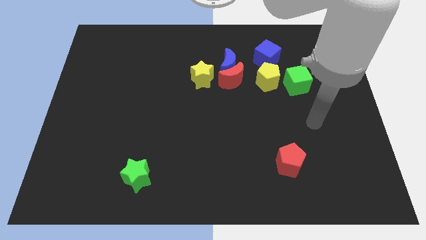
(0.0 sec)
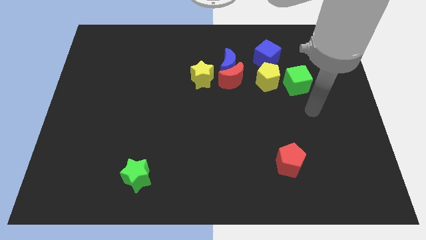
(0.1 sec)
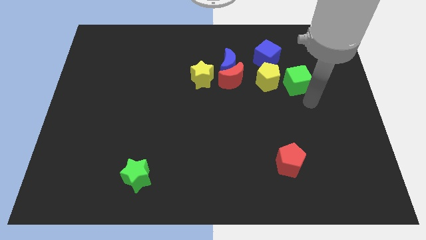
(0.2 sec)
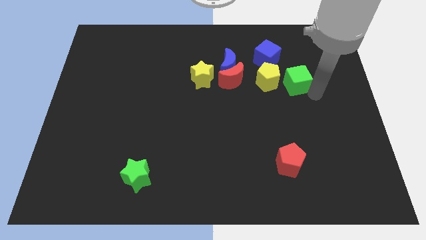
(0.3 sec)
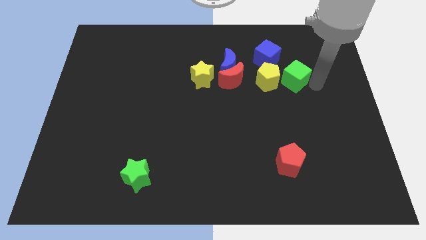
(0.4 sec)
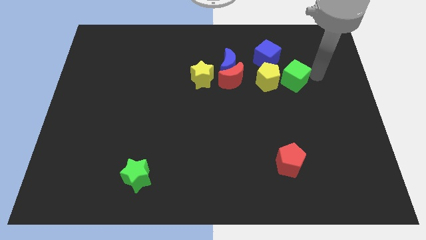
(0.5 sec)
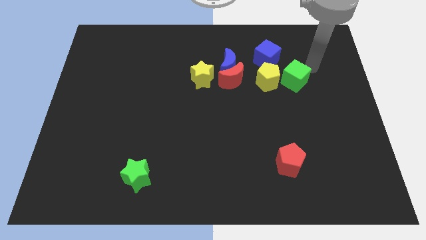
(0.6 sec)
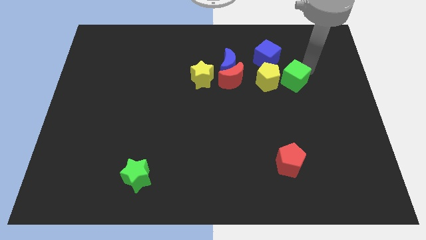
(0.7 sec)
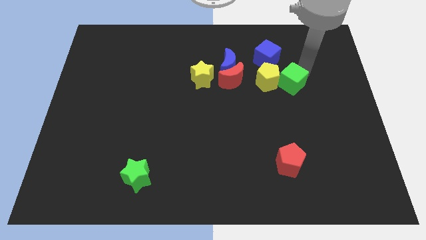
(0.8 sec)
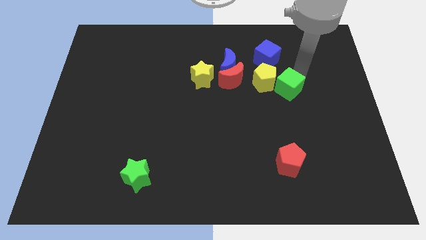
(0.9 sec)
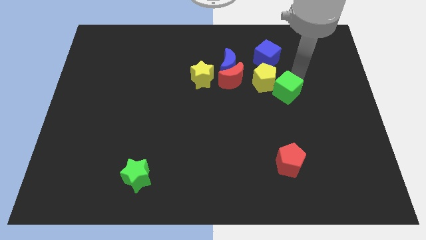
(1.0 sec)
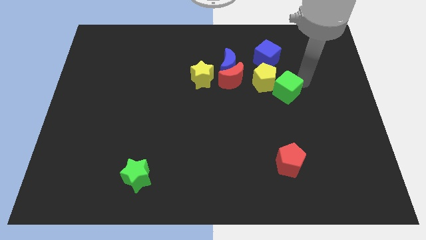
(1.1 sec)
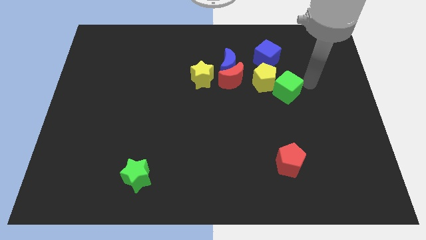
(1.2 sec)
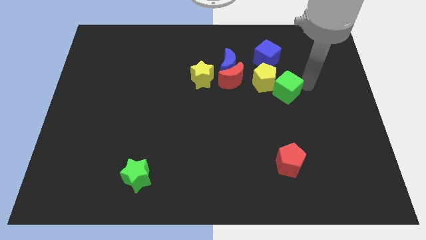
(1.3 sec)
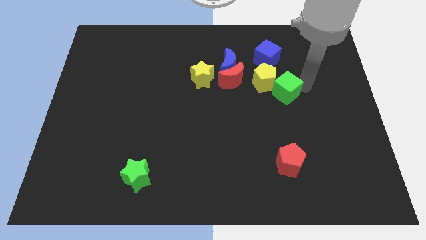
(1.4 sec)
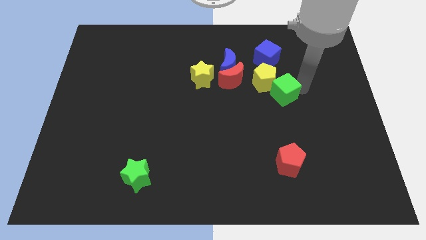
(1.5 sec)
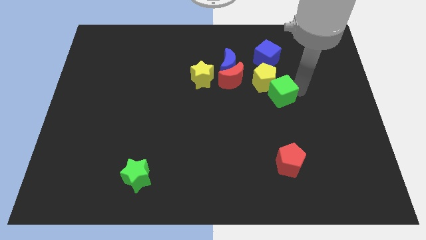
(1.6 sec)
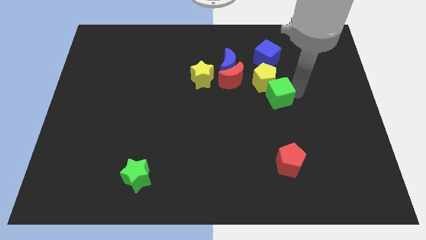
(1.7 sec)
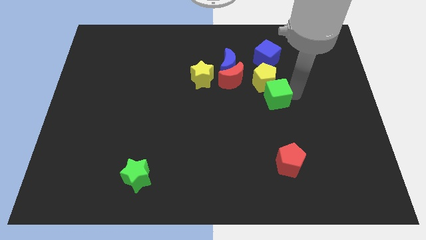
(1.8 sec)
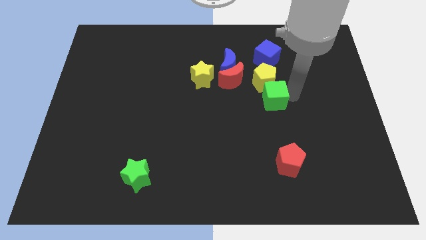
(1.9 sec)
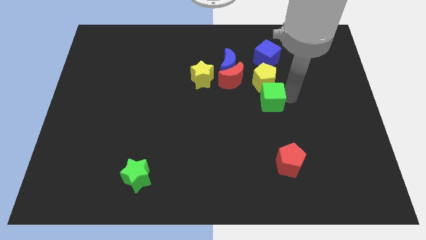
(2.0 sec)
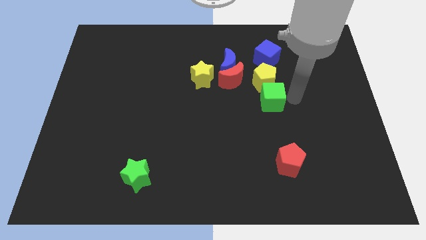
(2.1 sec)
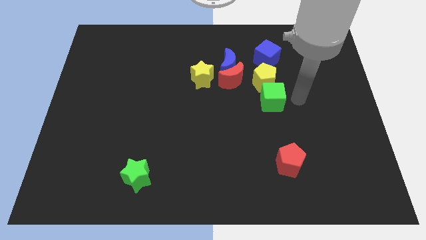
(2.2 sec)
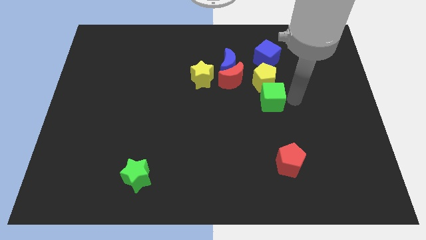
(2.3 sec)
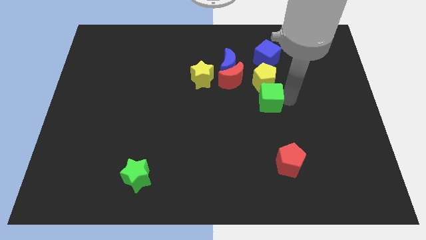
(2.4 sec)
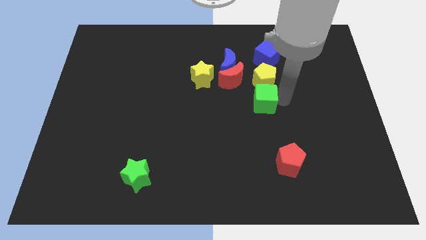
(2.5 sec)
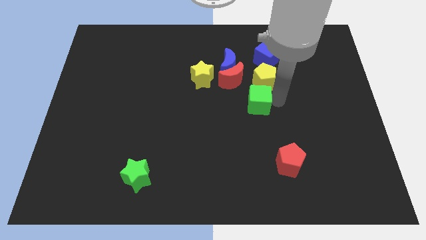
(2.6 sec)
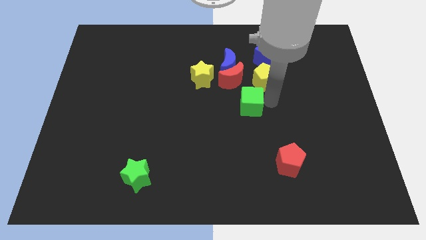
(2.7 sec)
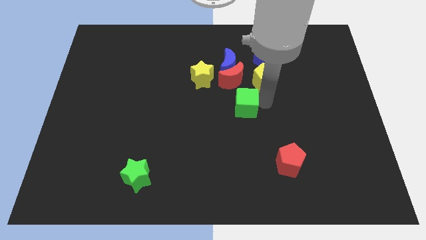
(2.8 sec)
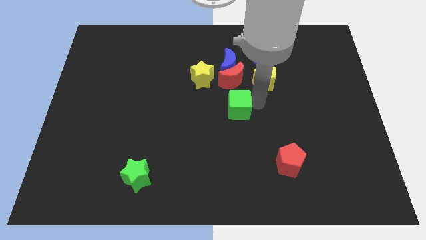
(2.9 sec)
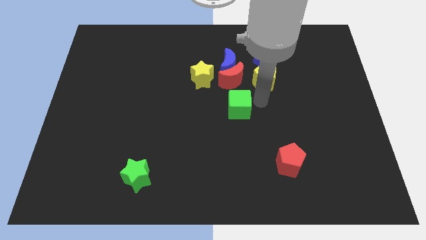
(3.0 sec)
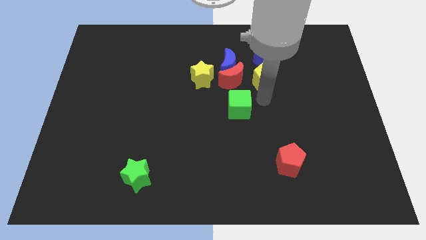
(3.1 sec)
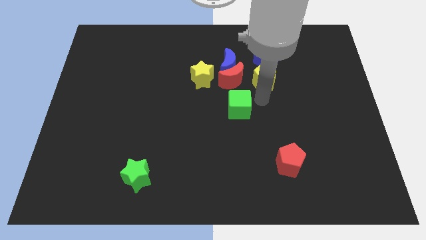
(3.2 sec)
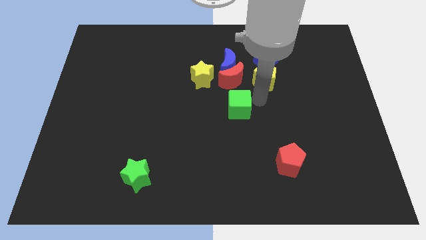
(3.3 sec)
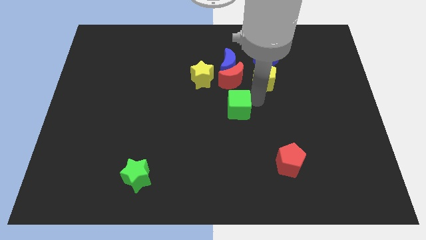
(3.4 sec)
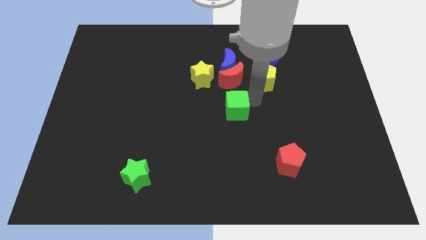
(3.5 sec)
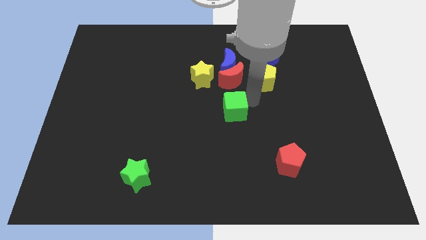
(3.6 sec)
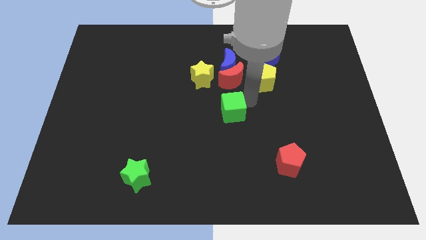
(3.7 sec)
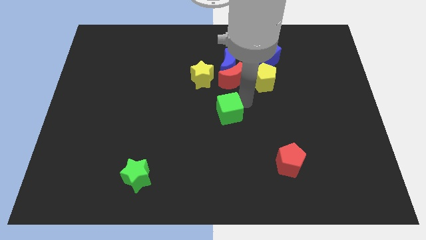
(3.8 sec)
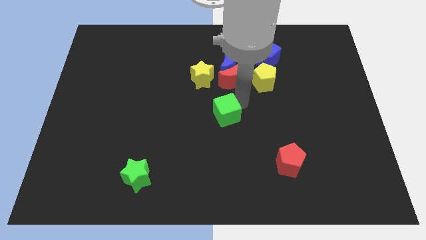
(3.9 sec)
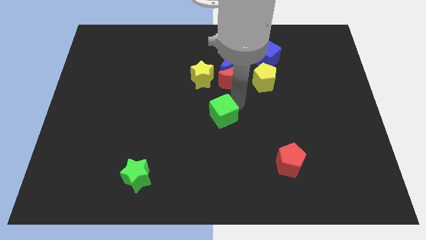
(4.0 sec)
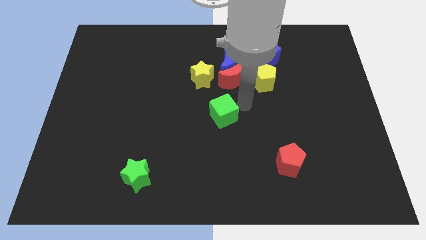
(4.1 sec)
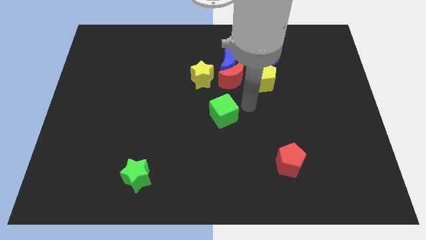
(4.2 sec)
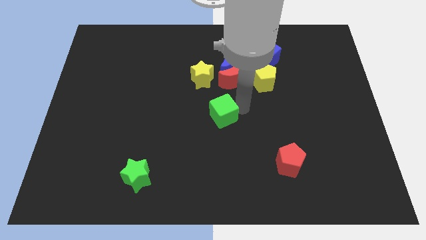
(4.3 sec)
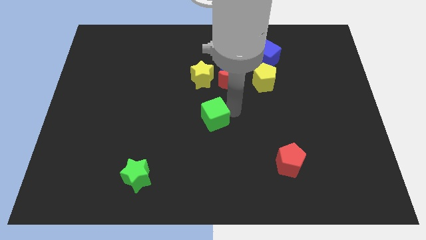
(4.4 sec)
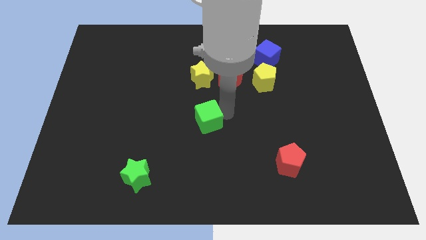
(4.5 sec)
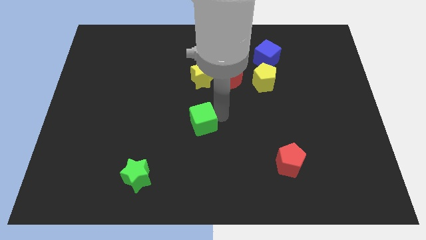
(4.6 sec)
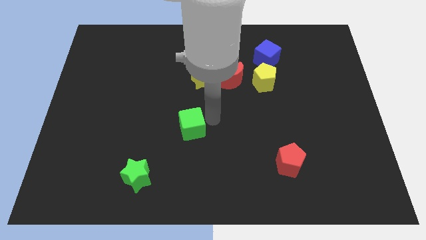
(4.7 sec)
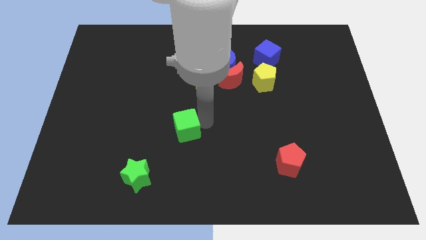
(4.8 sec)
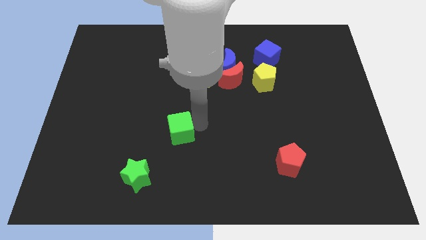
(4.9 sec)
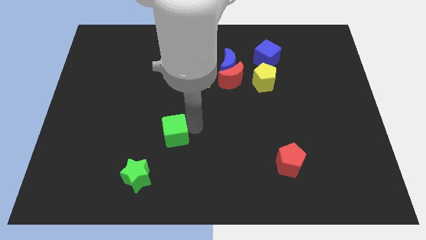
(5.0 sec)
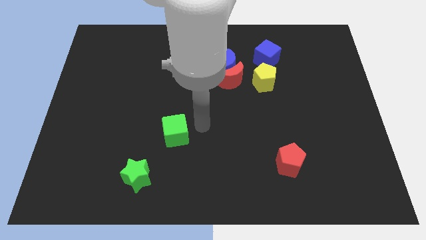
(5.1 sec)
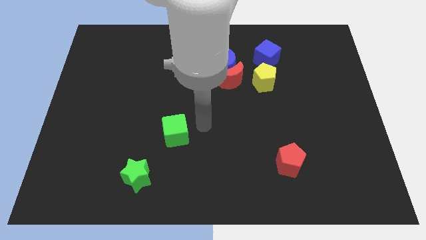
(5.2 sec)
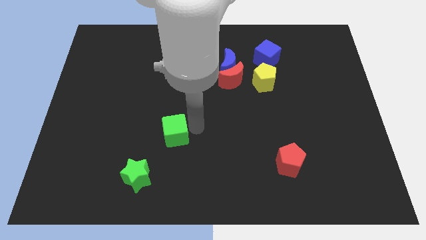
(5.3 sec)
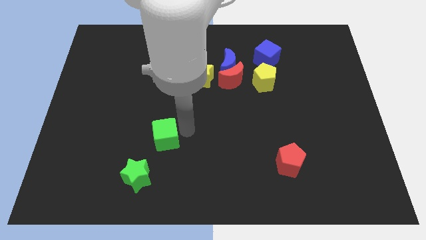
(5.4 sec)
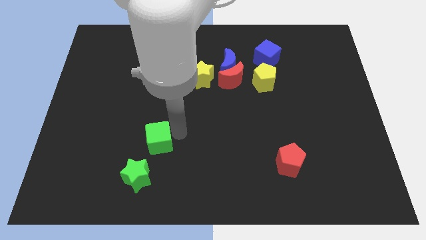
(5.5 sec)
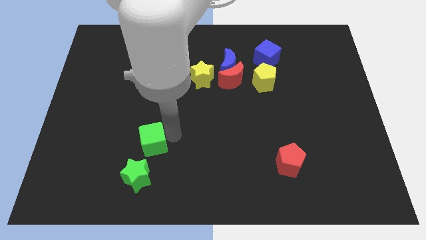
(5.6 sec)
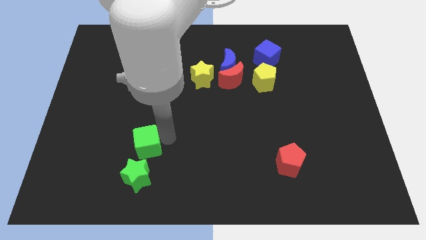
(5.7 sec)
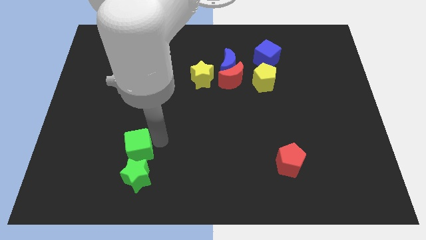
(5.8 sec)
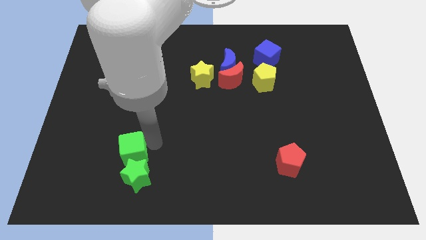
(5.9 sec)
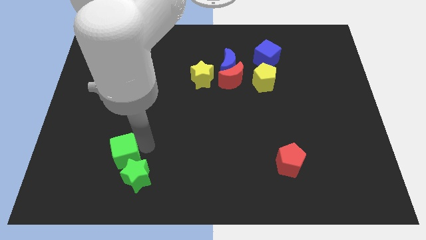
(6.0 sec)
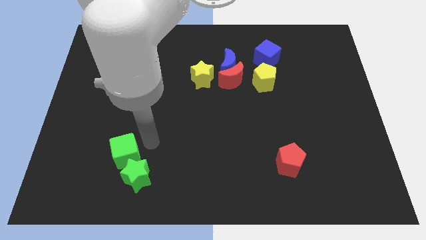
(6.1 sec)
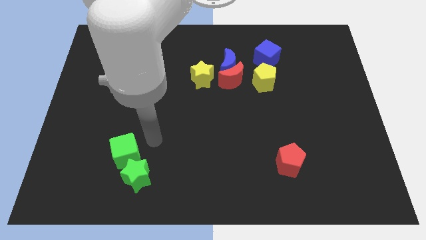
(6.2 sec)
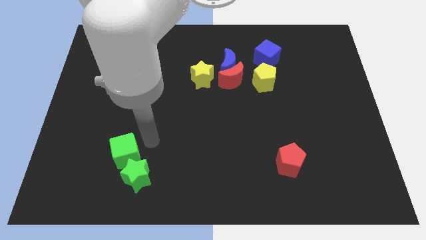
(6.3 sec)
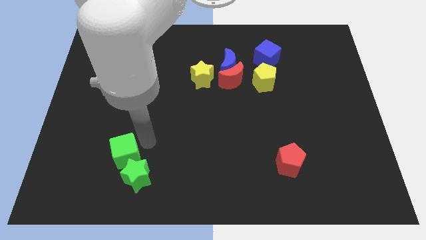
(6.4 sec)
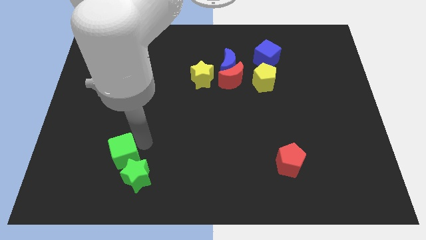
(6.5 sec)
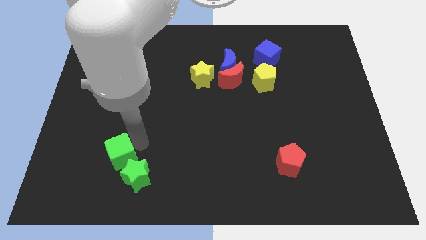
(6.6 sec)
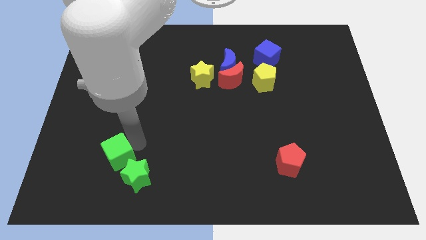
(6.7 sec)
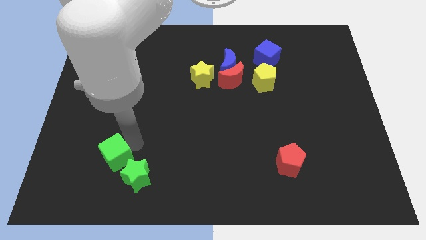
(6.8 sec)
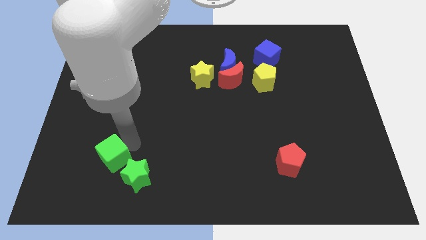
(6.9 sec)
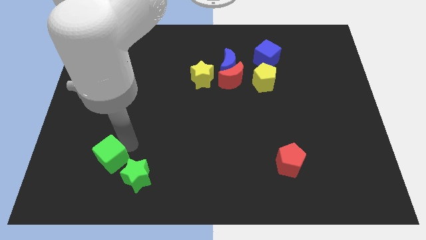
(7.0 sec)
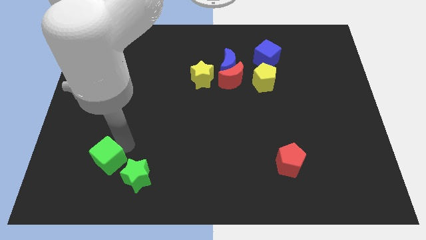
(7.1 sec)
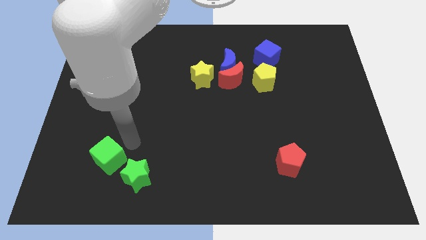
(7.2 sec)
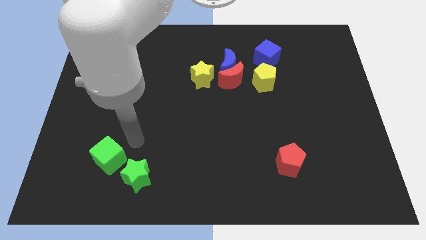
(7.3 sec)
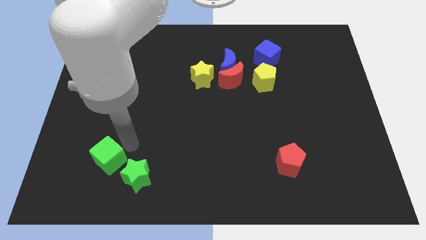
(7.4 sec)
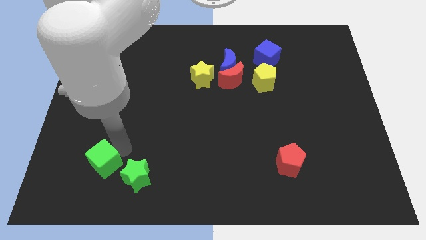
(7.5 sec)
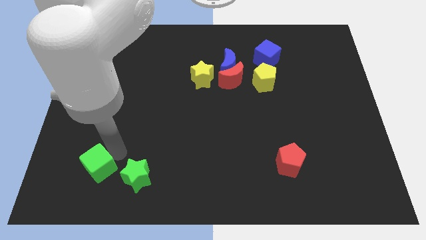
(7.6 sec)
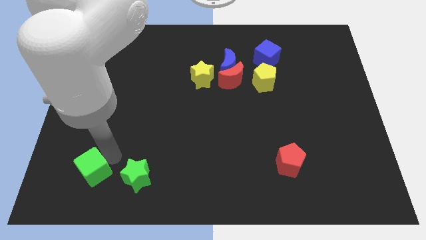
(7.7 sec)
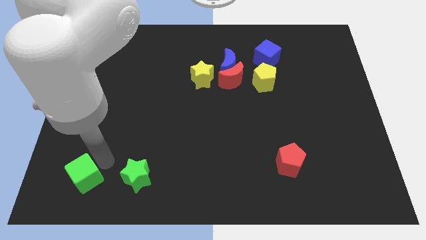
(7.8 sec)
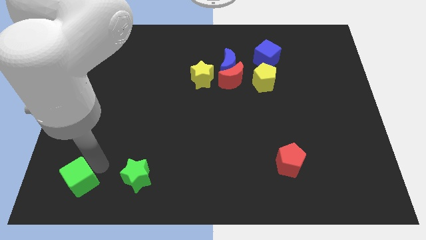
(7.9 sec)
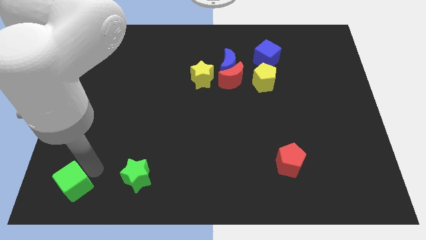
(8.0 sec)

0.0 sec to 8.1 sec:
push the green cube to the lower left corner
